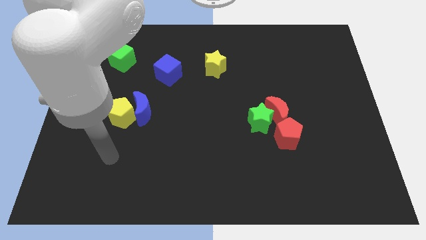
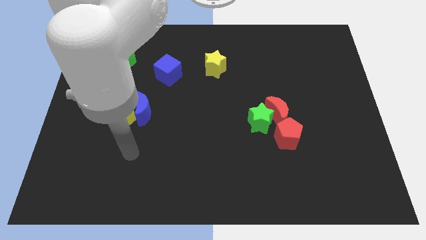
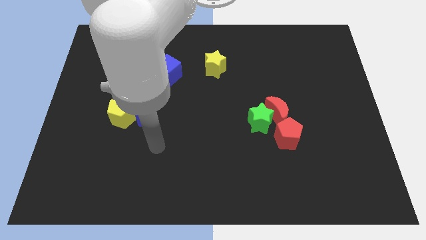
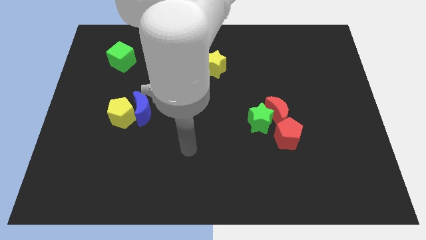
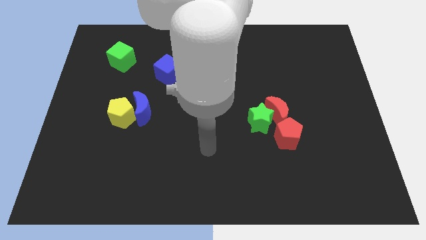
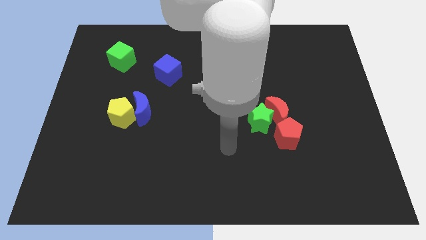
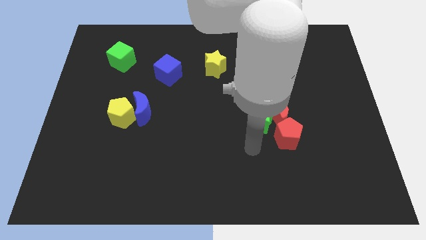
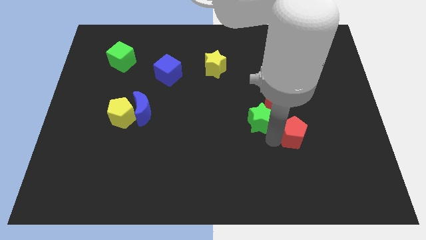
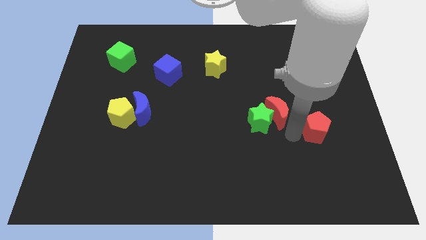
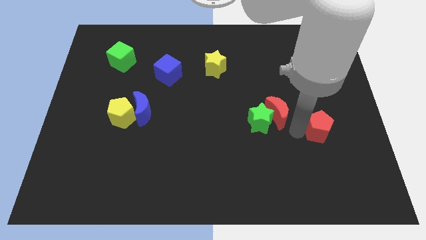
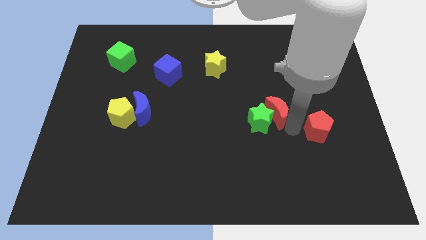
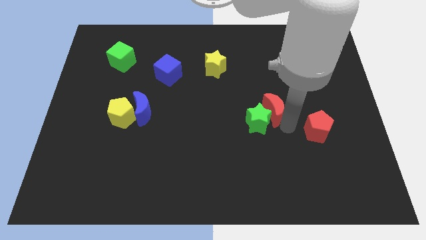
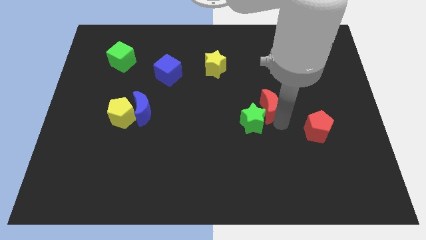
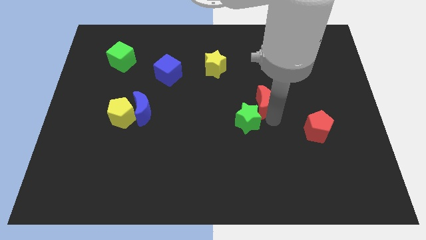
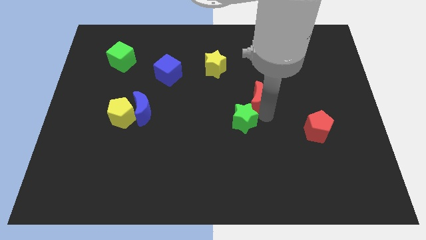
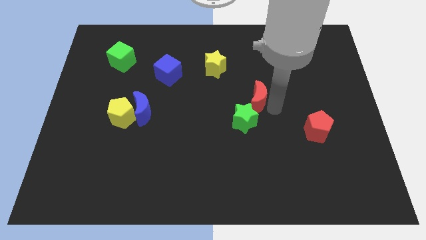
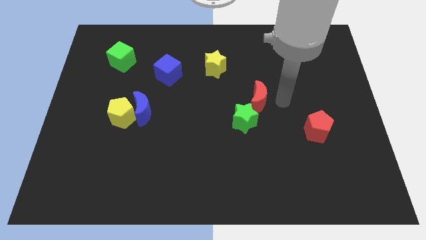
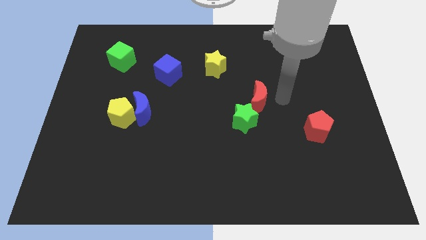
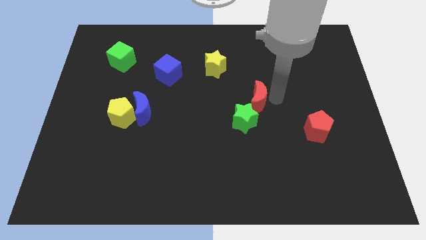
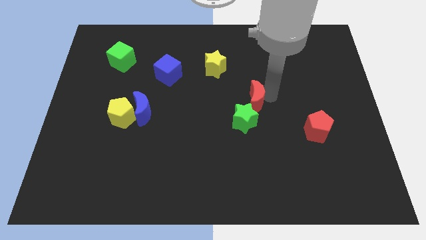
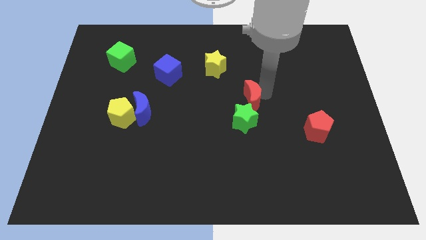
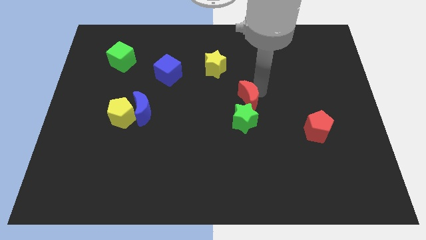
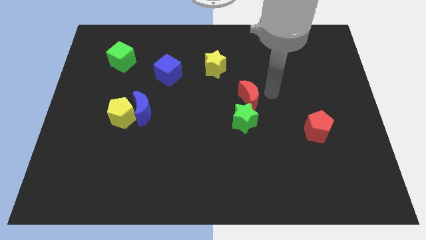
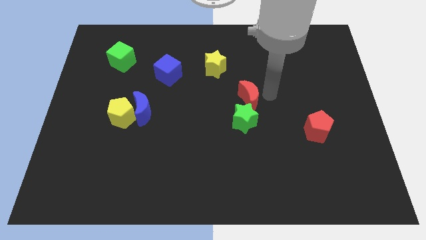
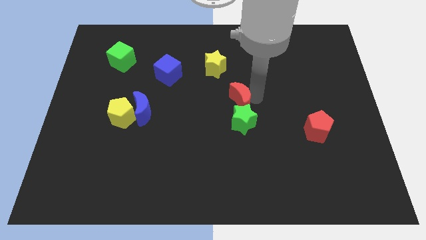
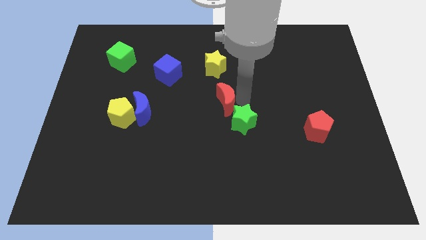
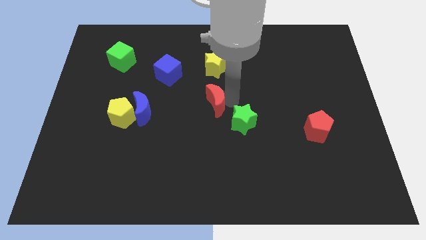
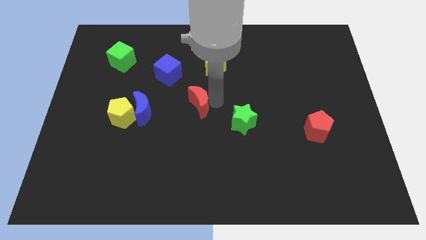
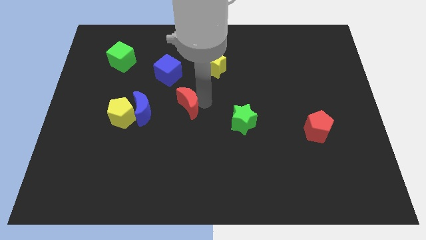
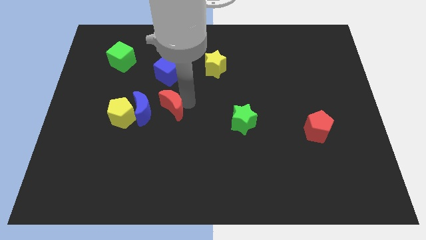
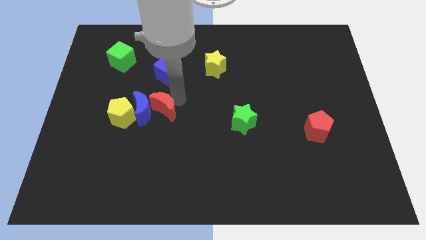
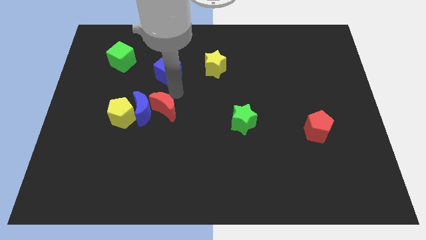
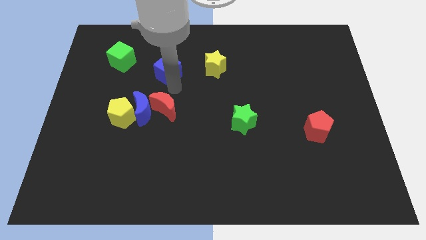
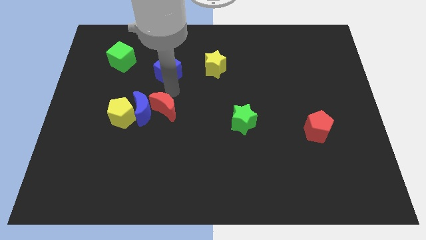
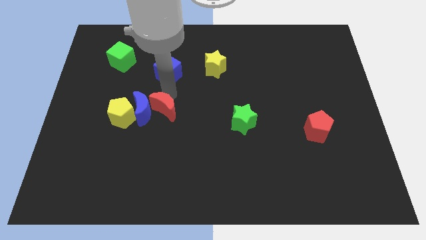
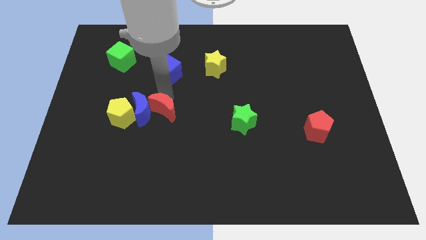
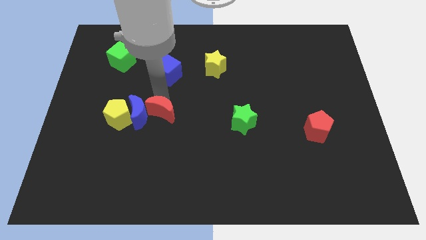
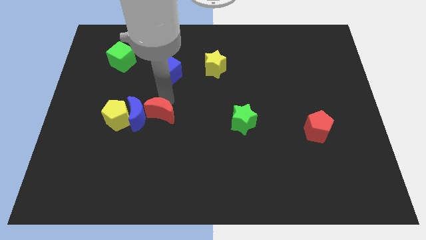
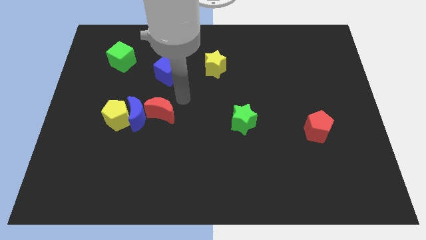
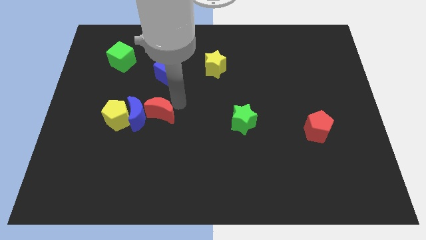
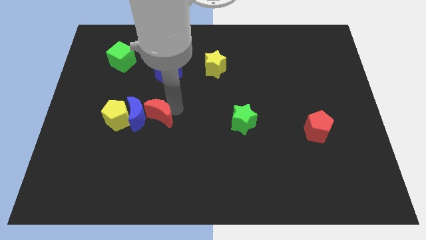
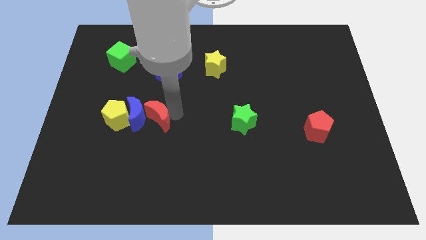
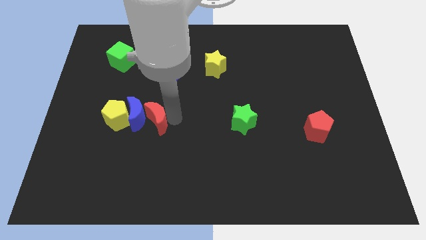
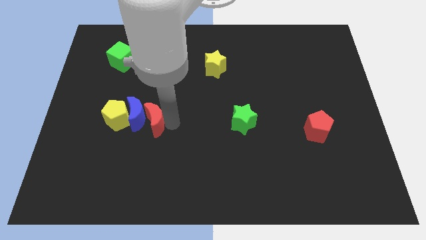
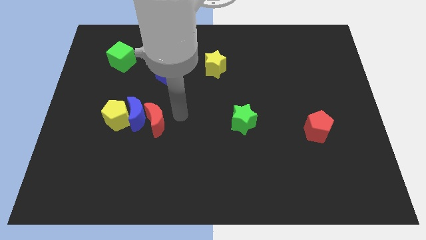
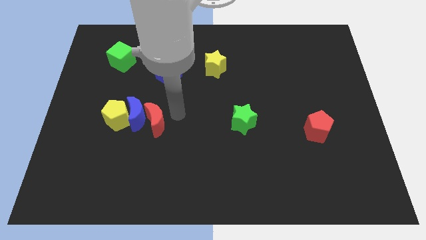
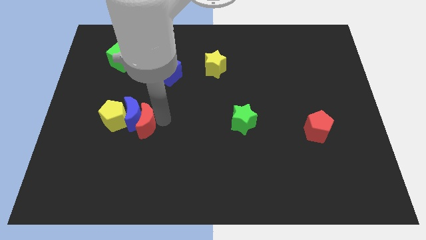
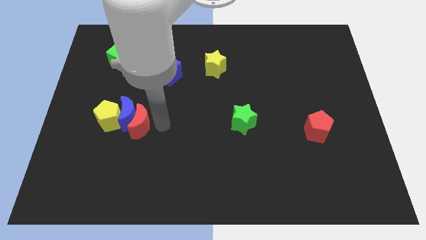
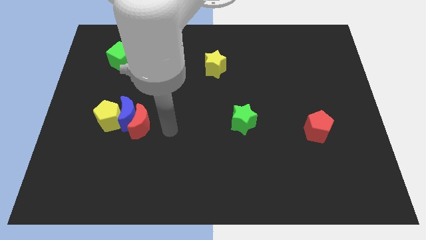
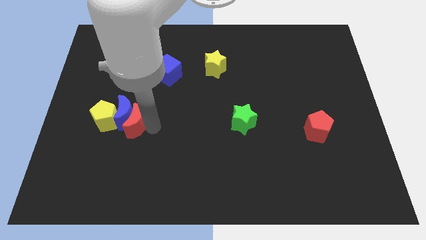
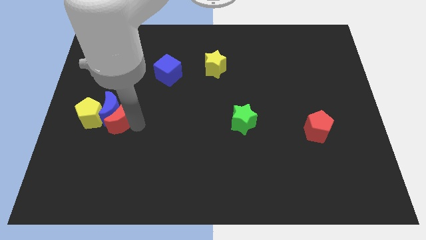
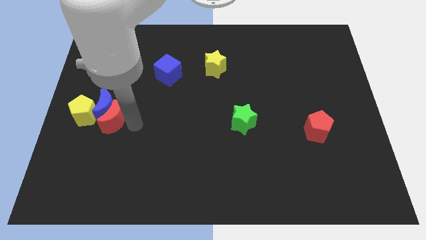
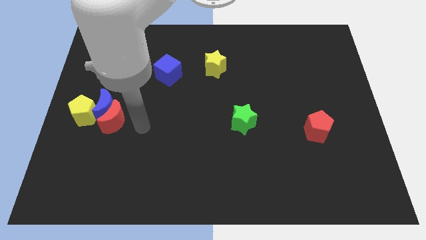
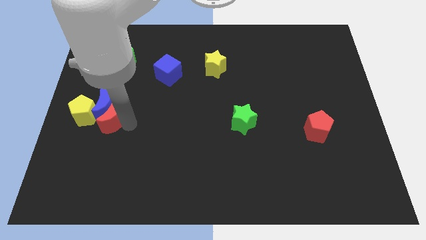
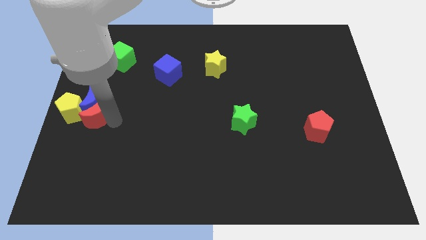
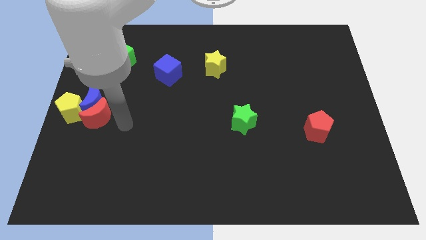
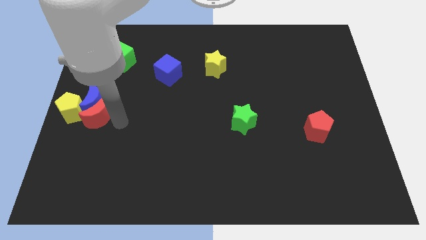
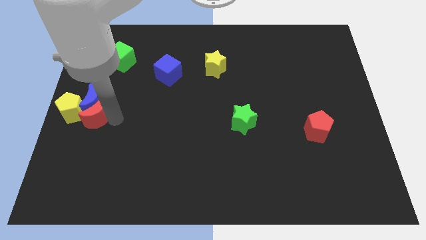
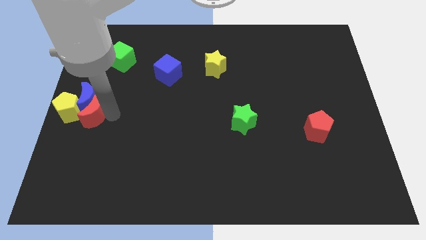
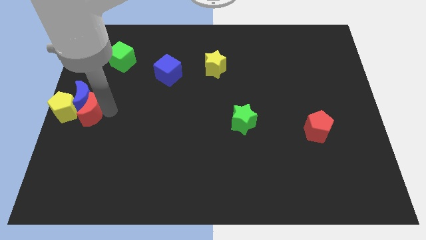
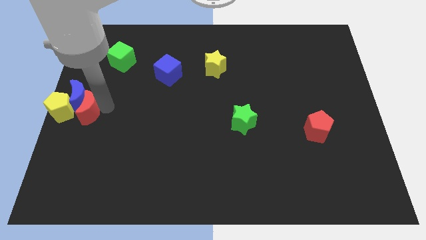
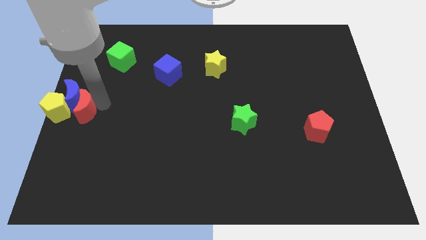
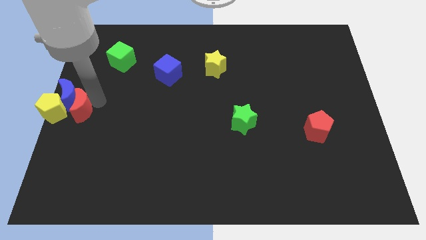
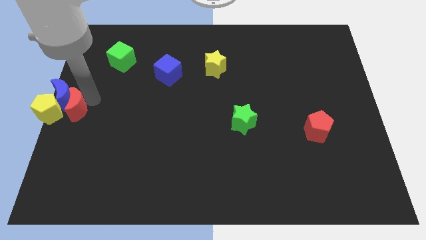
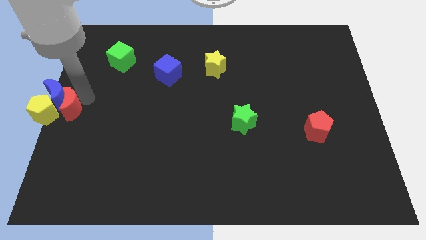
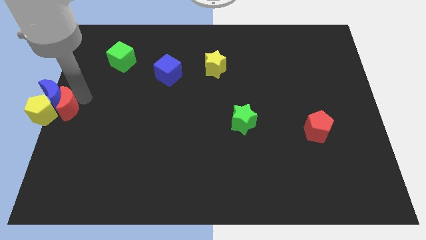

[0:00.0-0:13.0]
move the red moon next to the yellow pentagon

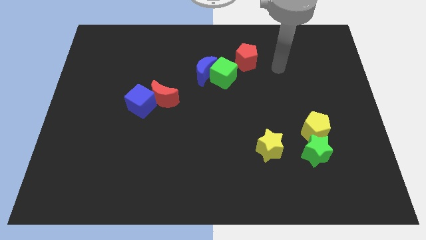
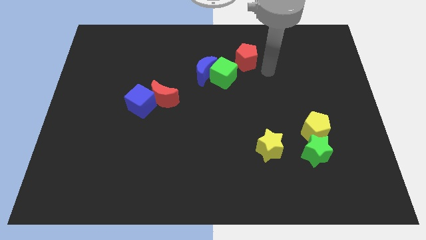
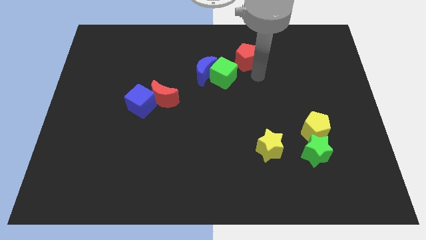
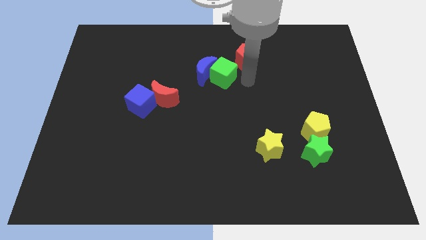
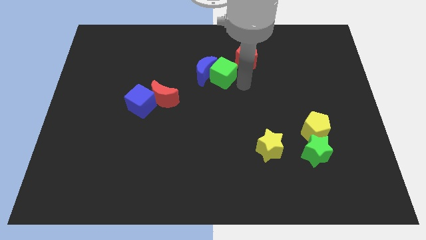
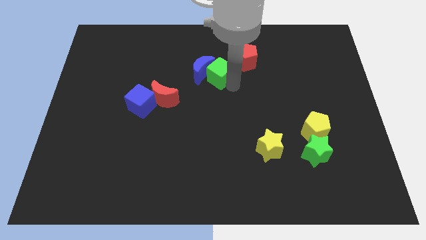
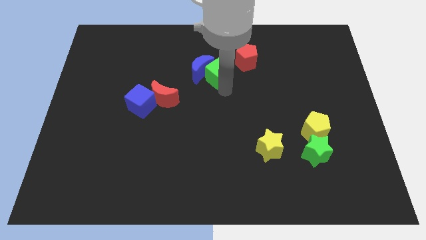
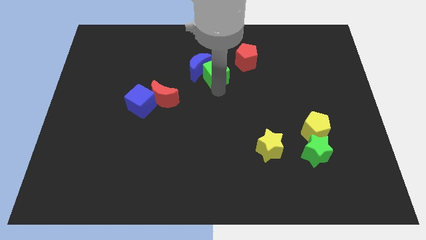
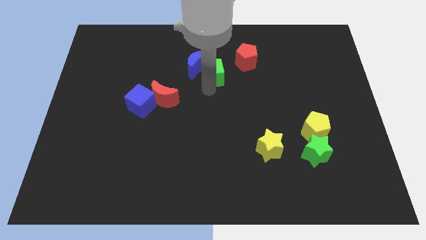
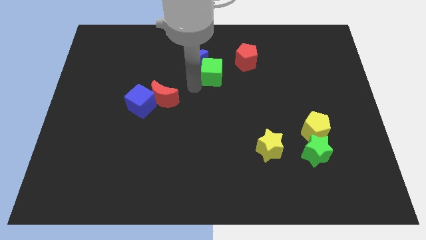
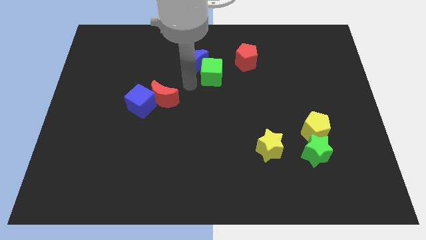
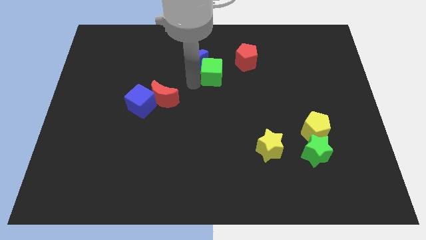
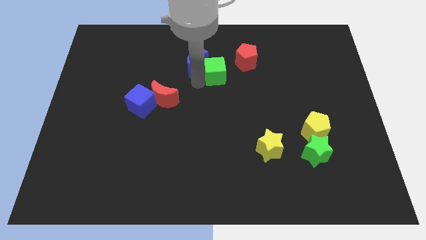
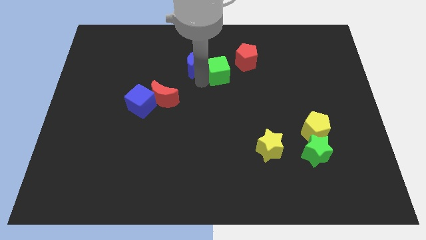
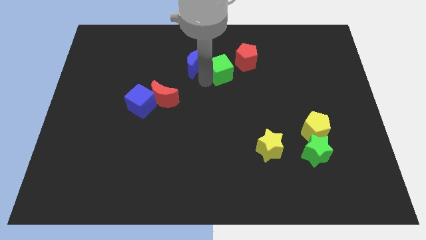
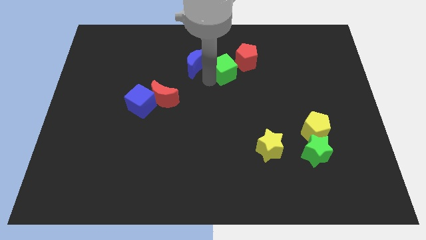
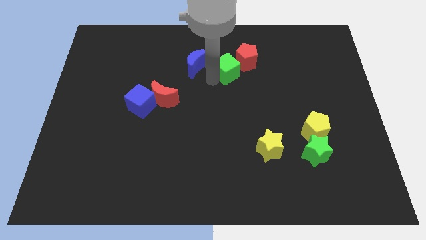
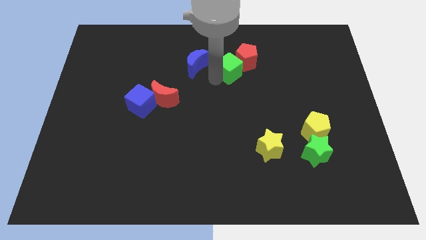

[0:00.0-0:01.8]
put the green cube towards the red pentagon
